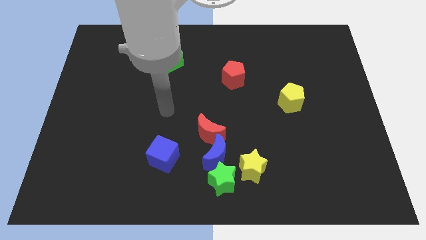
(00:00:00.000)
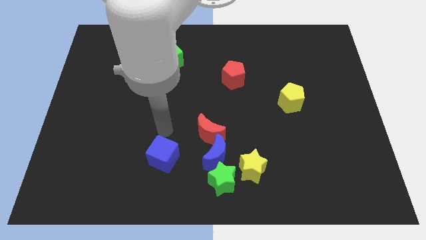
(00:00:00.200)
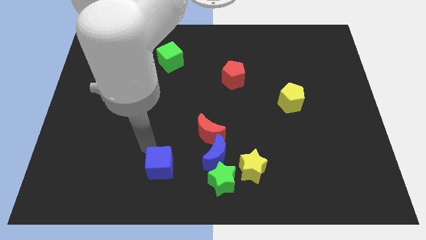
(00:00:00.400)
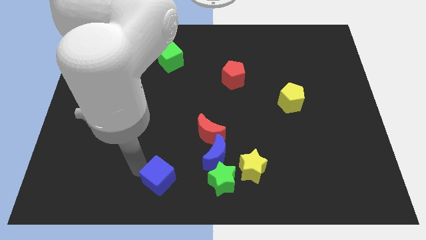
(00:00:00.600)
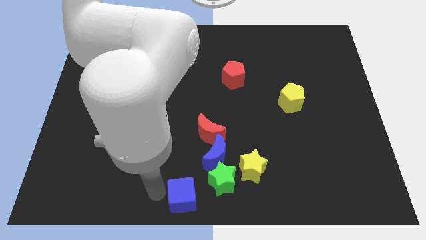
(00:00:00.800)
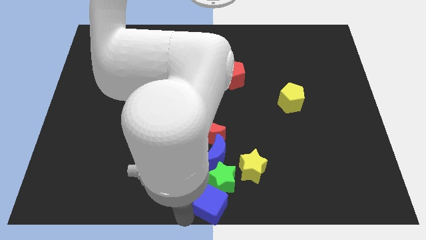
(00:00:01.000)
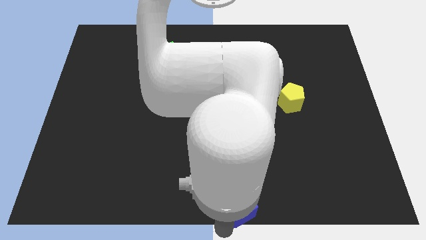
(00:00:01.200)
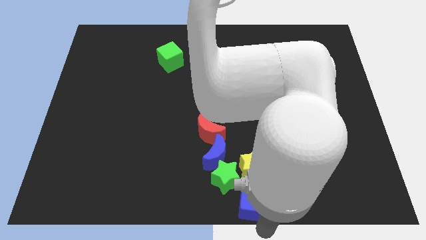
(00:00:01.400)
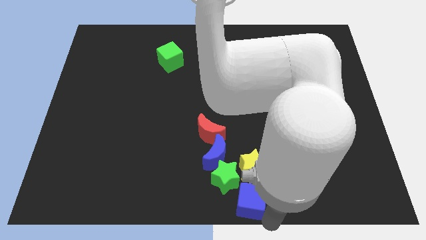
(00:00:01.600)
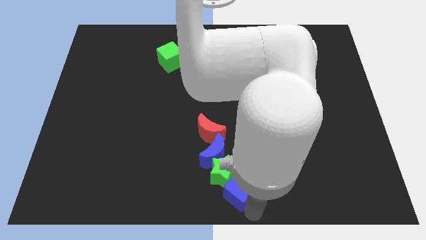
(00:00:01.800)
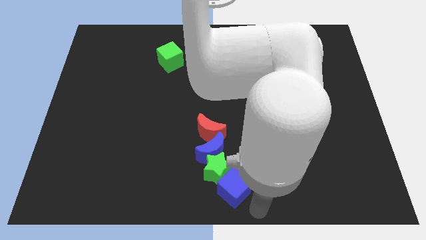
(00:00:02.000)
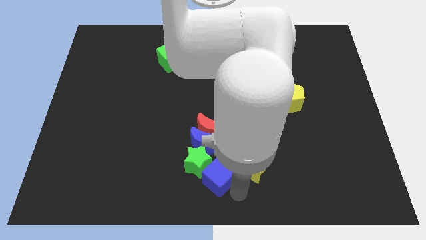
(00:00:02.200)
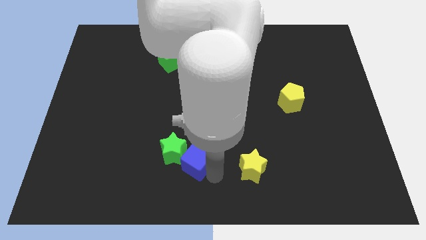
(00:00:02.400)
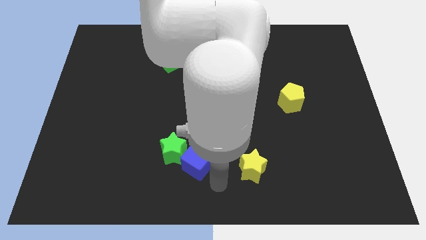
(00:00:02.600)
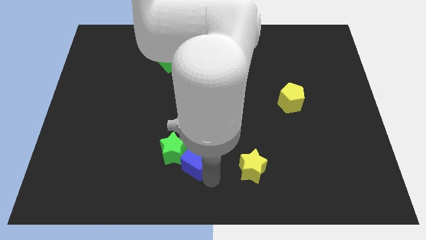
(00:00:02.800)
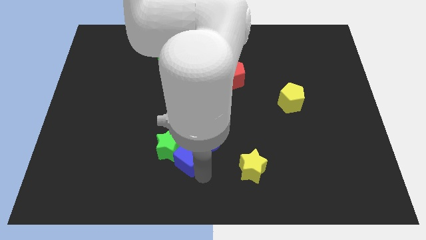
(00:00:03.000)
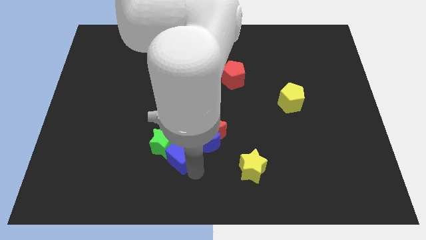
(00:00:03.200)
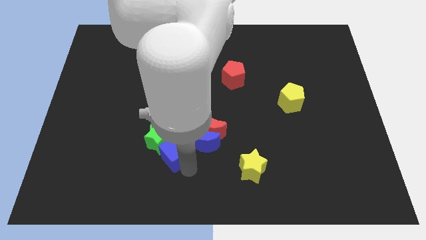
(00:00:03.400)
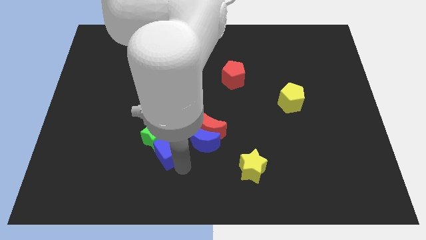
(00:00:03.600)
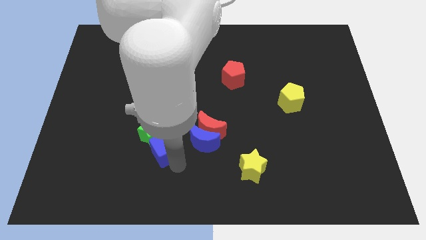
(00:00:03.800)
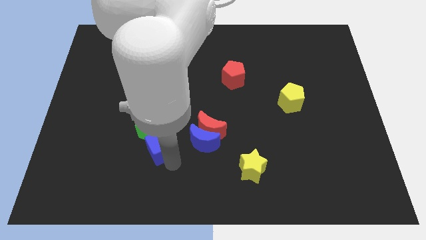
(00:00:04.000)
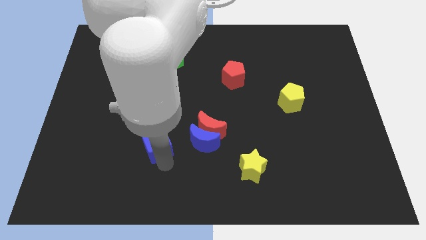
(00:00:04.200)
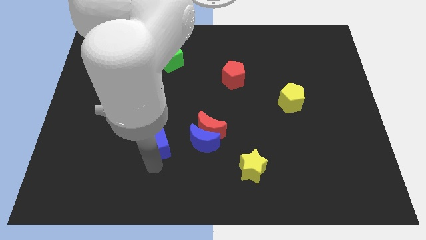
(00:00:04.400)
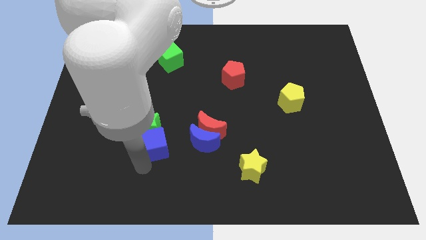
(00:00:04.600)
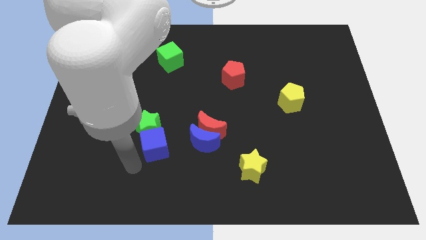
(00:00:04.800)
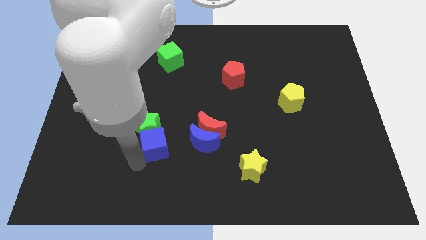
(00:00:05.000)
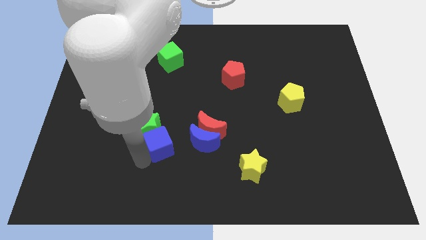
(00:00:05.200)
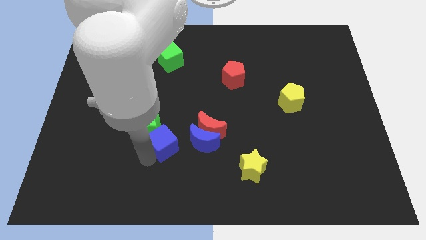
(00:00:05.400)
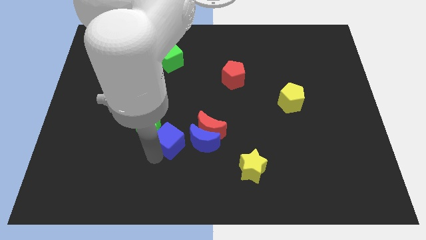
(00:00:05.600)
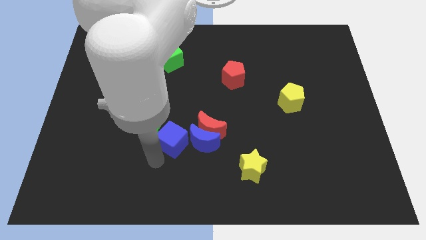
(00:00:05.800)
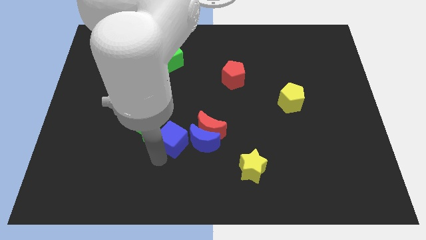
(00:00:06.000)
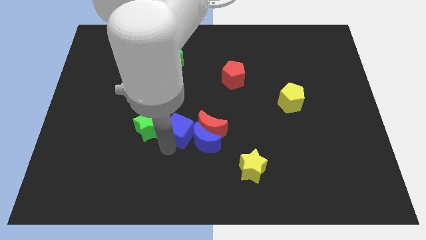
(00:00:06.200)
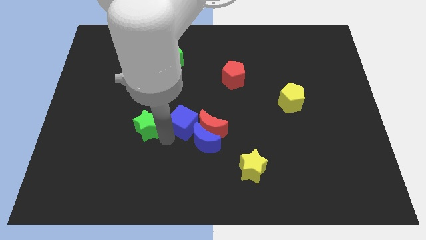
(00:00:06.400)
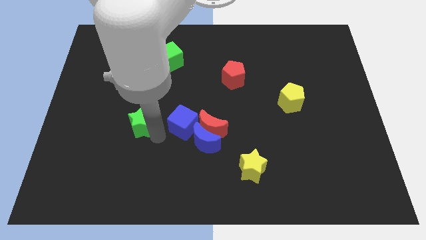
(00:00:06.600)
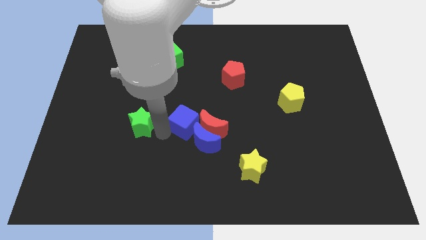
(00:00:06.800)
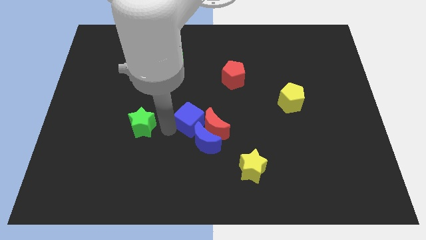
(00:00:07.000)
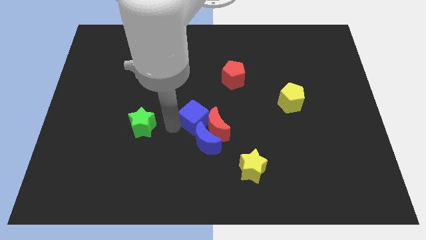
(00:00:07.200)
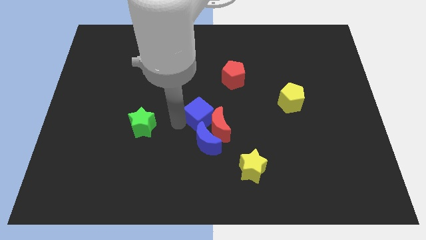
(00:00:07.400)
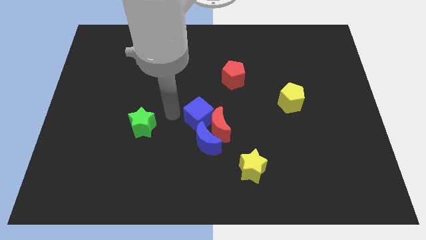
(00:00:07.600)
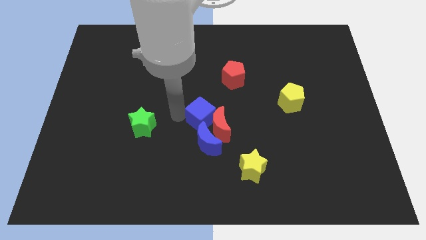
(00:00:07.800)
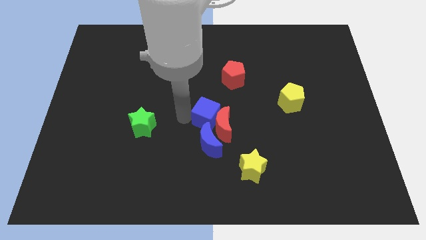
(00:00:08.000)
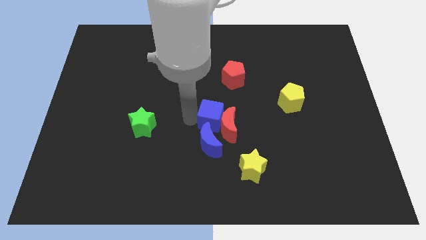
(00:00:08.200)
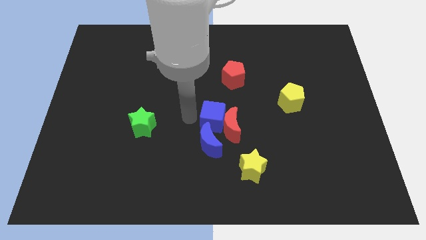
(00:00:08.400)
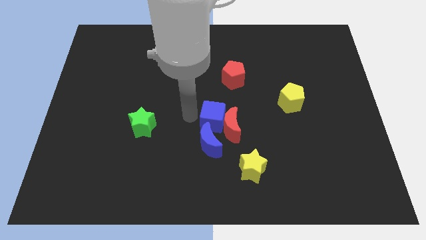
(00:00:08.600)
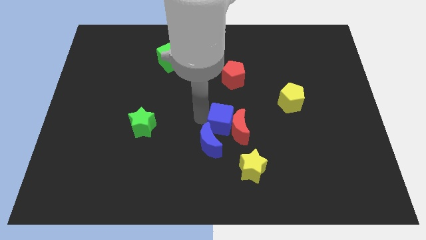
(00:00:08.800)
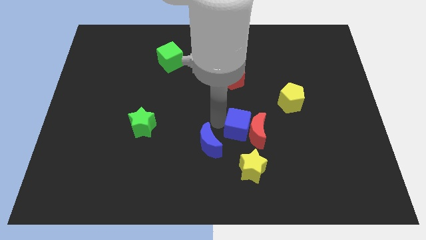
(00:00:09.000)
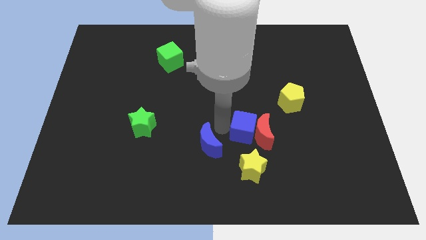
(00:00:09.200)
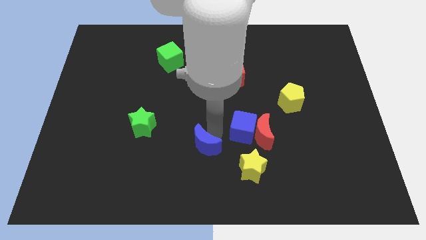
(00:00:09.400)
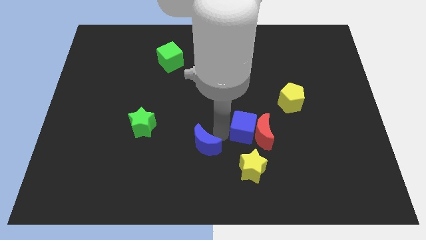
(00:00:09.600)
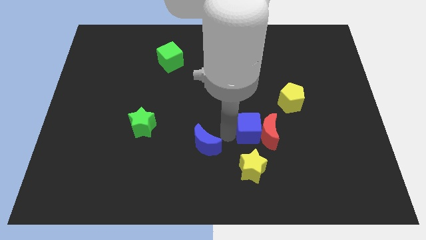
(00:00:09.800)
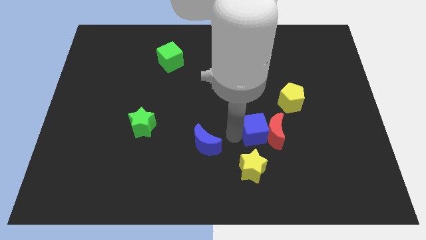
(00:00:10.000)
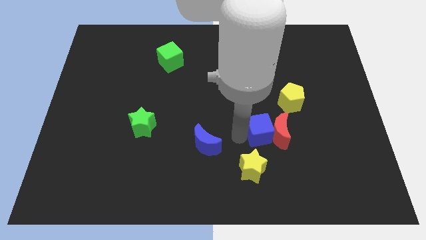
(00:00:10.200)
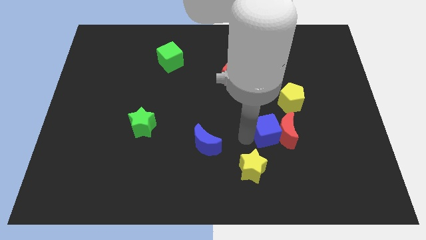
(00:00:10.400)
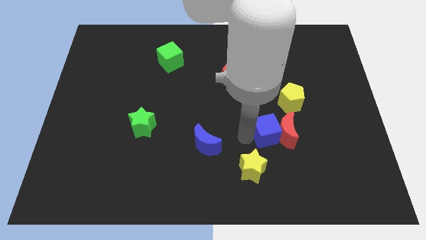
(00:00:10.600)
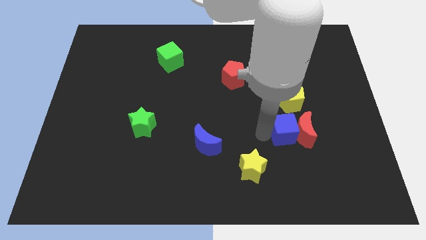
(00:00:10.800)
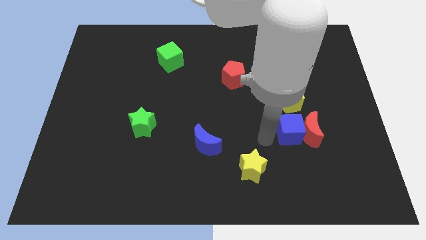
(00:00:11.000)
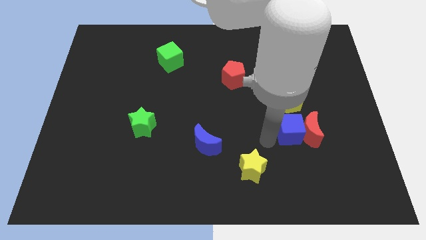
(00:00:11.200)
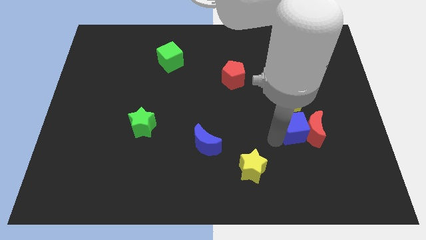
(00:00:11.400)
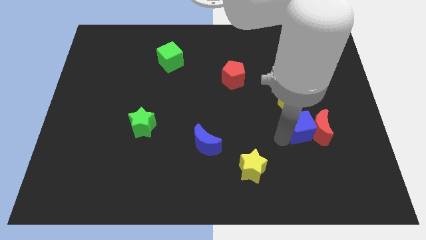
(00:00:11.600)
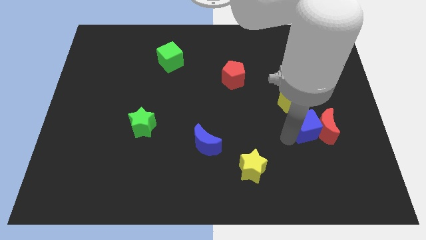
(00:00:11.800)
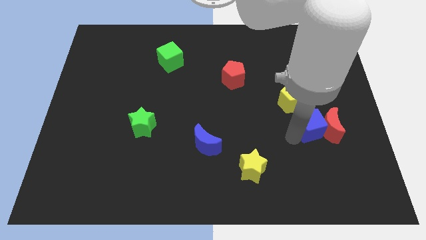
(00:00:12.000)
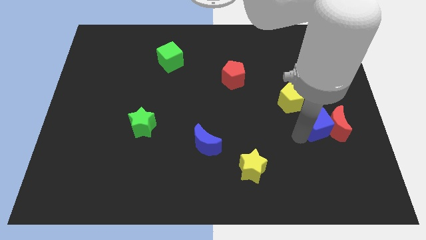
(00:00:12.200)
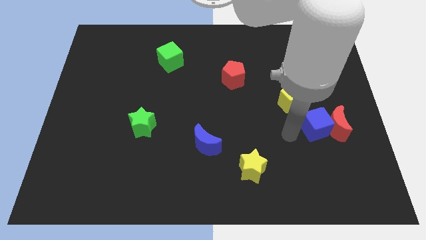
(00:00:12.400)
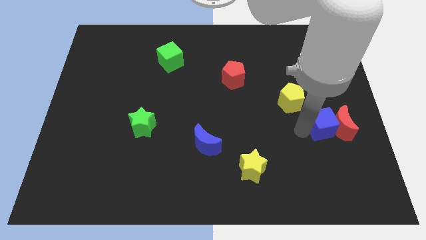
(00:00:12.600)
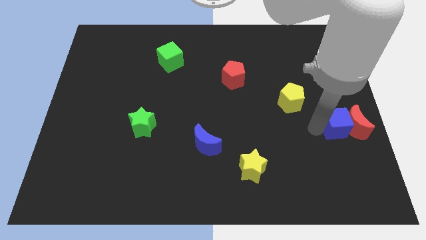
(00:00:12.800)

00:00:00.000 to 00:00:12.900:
put the blue cube to the center right

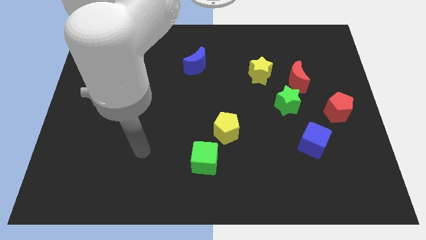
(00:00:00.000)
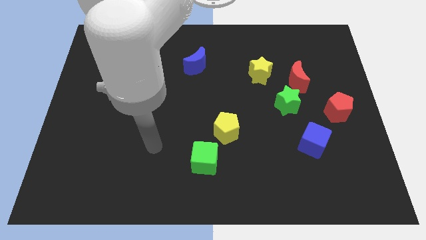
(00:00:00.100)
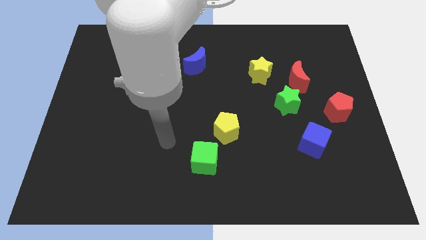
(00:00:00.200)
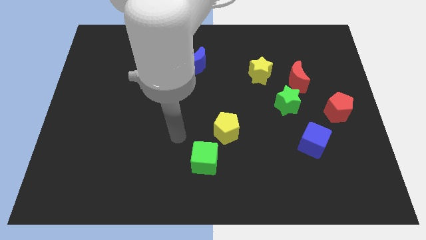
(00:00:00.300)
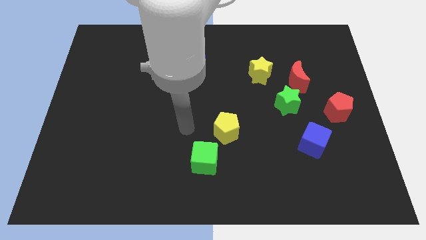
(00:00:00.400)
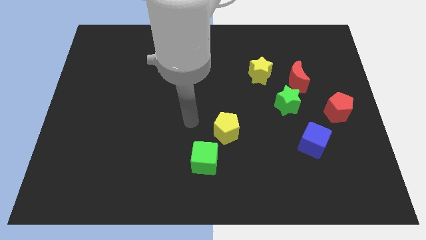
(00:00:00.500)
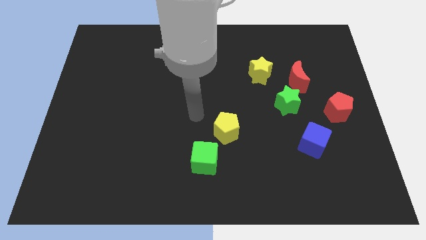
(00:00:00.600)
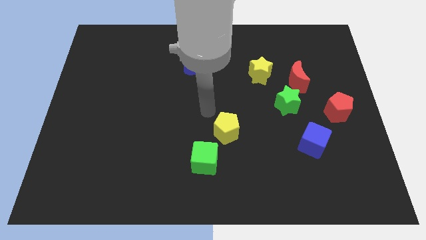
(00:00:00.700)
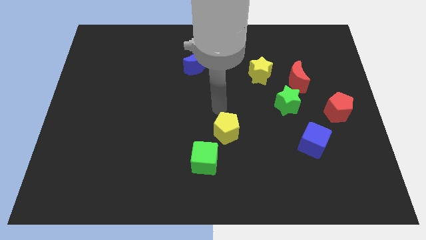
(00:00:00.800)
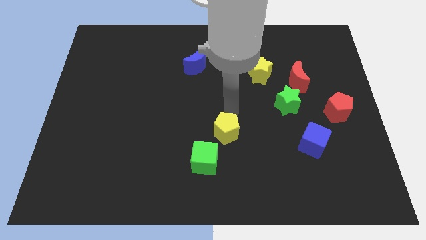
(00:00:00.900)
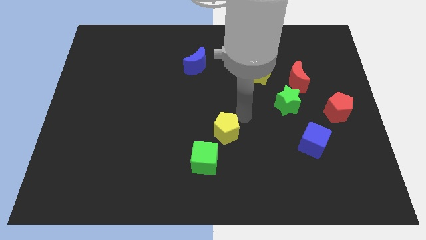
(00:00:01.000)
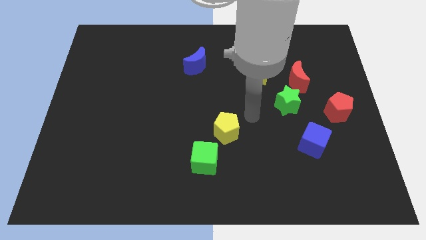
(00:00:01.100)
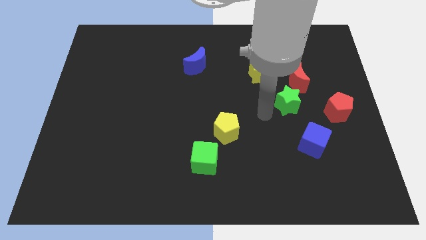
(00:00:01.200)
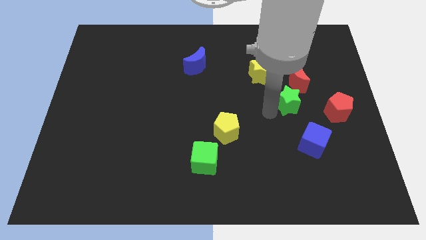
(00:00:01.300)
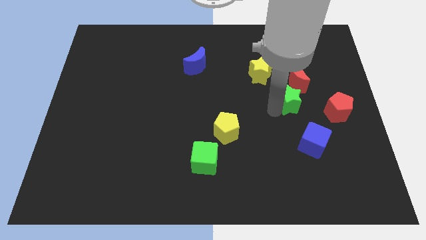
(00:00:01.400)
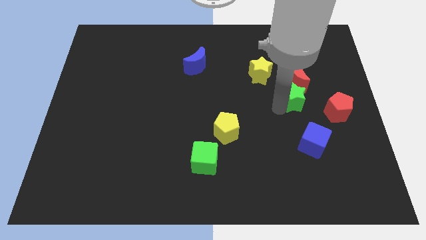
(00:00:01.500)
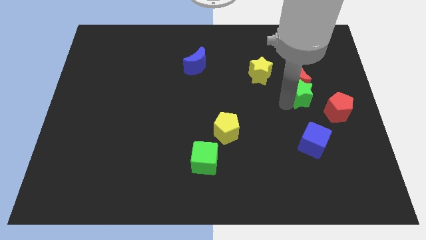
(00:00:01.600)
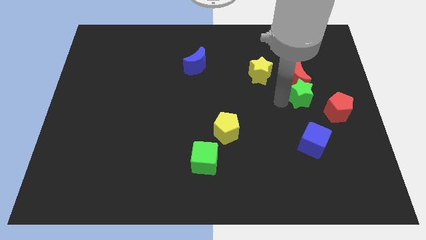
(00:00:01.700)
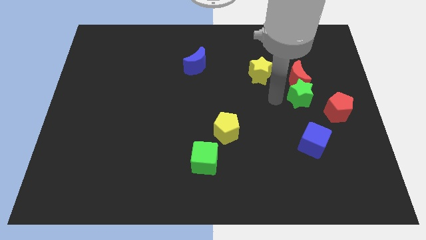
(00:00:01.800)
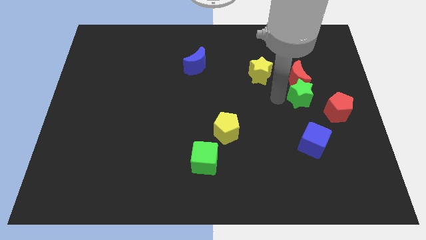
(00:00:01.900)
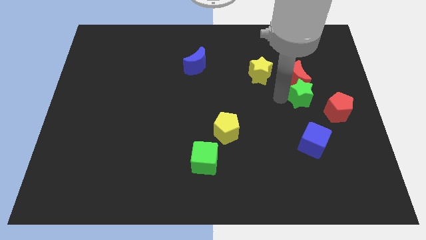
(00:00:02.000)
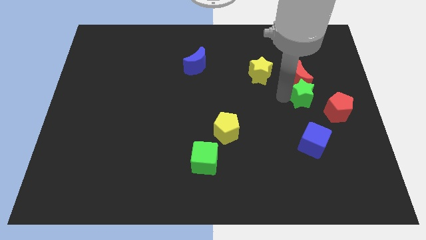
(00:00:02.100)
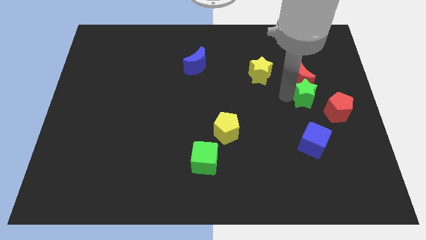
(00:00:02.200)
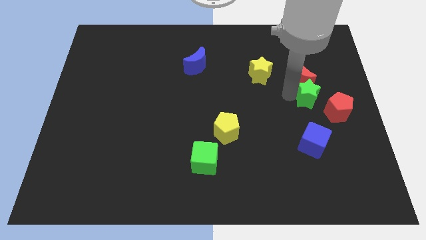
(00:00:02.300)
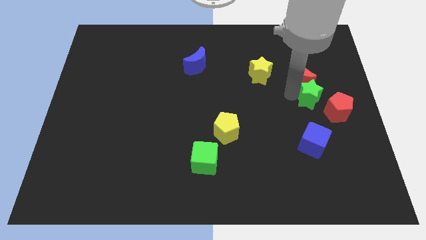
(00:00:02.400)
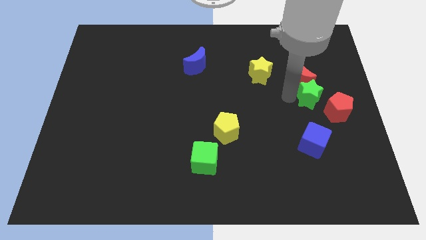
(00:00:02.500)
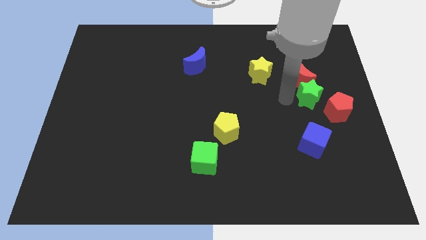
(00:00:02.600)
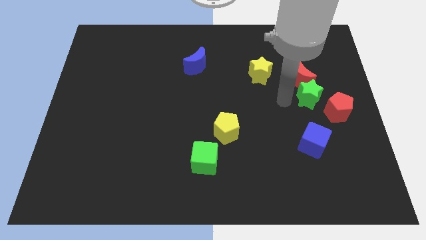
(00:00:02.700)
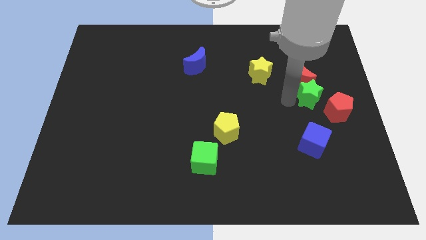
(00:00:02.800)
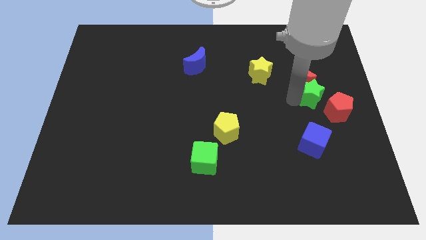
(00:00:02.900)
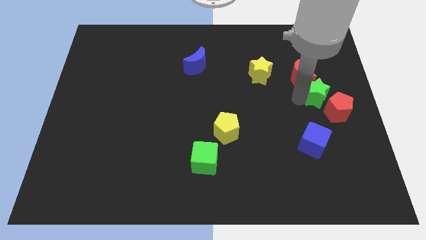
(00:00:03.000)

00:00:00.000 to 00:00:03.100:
move the green star to the center right
